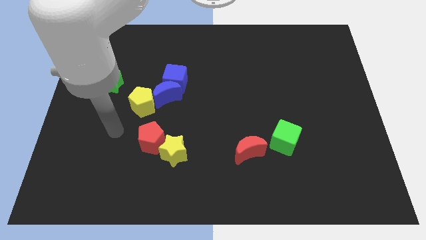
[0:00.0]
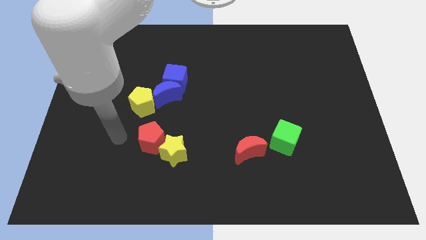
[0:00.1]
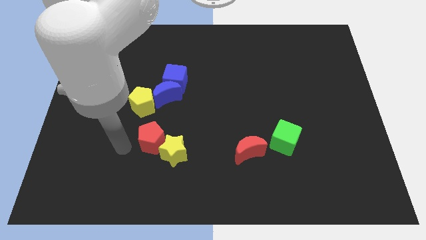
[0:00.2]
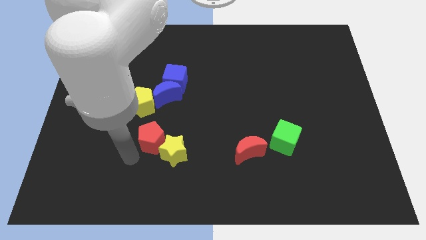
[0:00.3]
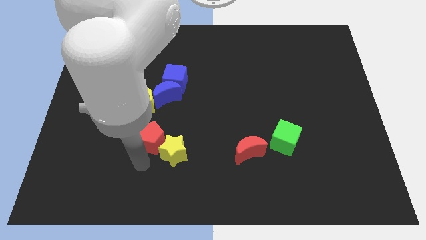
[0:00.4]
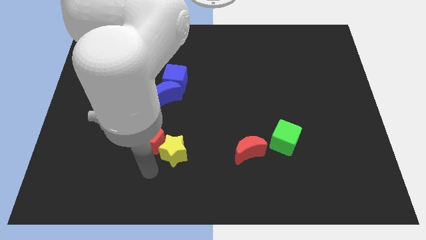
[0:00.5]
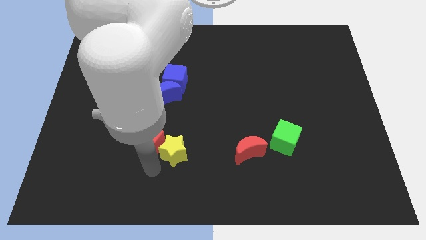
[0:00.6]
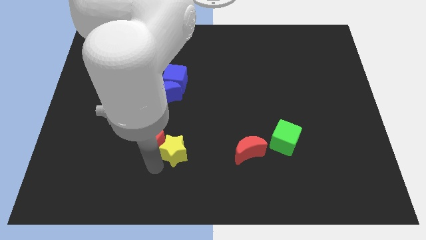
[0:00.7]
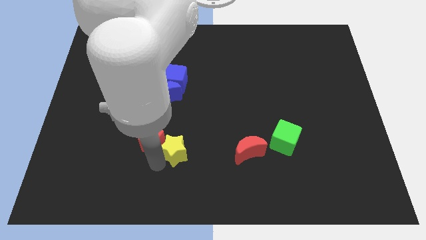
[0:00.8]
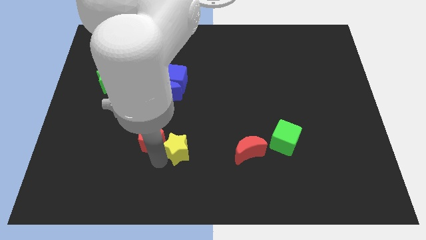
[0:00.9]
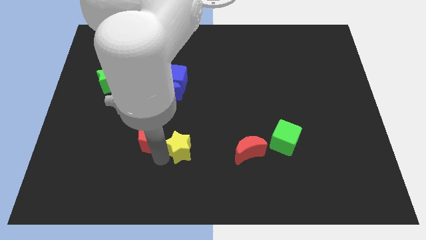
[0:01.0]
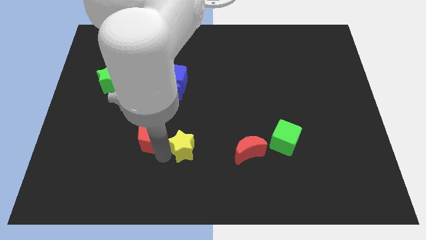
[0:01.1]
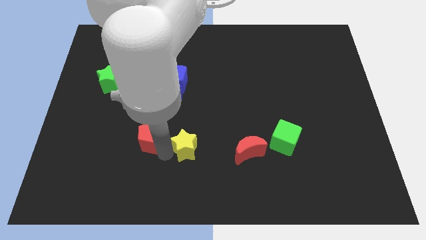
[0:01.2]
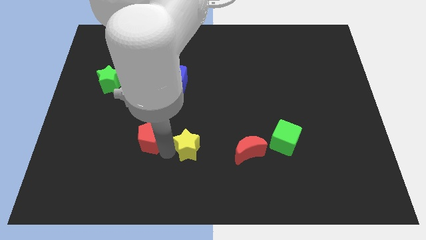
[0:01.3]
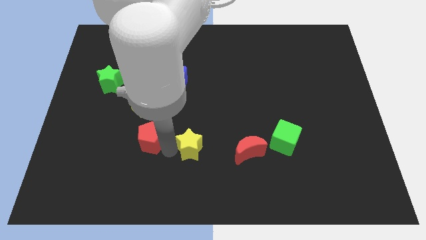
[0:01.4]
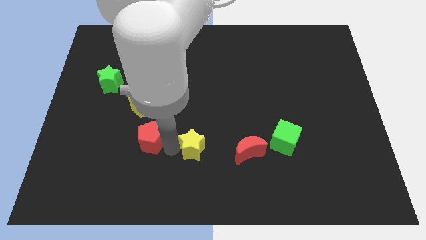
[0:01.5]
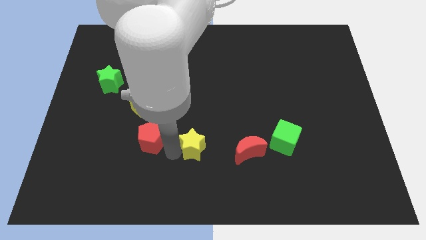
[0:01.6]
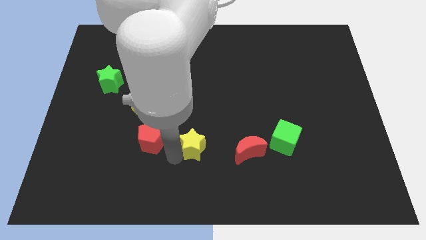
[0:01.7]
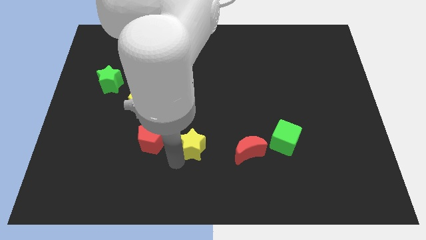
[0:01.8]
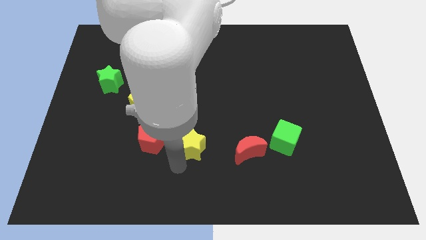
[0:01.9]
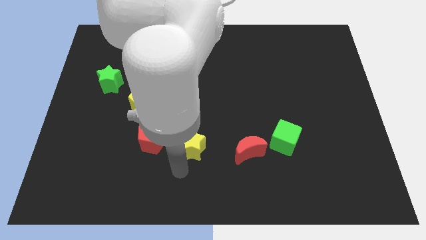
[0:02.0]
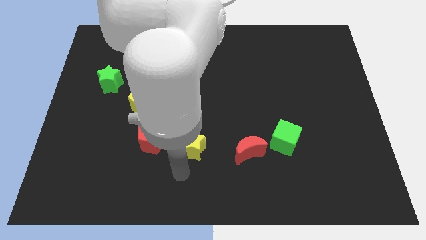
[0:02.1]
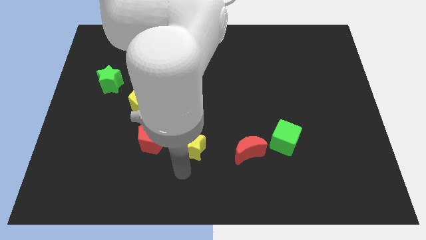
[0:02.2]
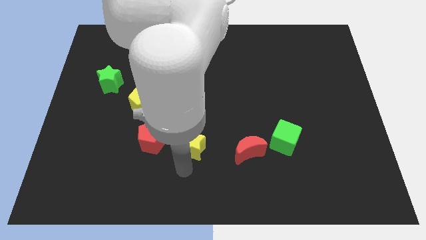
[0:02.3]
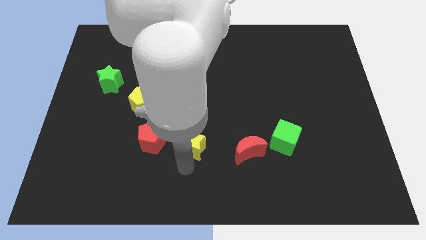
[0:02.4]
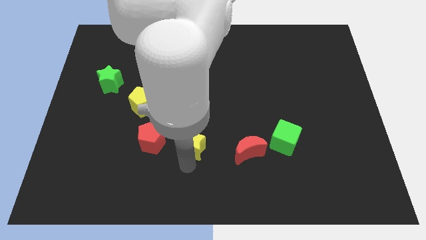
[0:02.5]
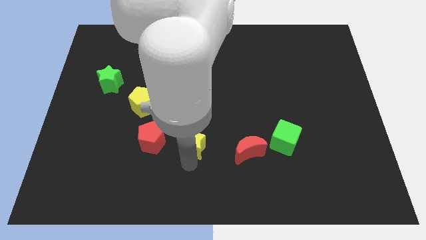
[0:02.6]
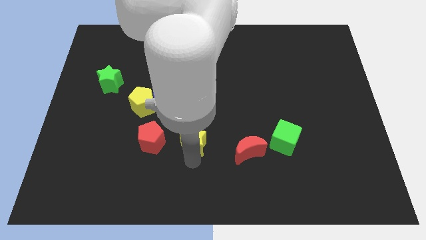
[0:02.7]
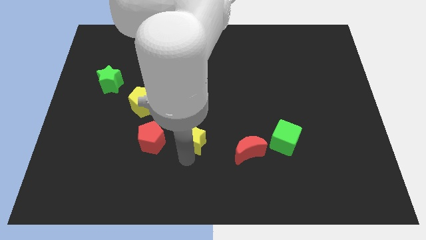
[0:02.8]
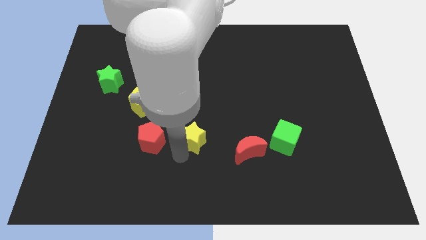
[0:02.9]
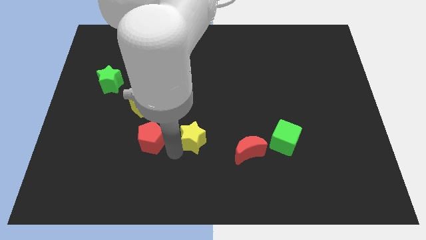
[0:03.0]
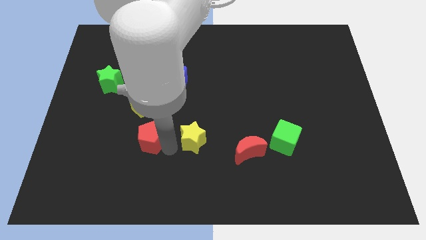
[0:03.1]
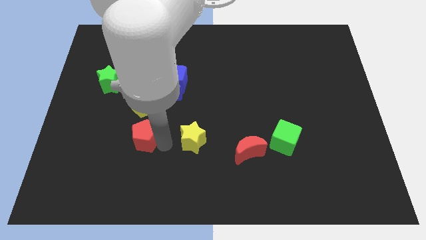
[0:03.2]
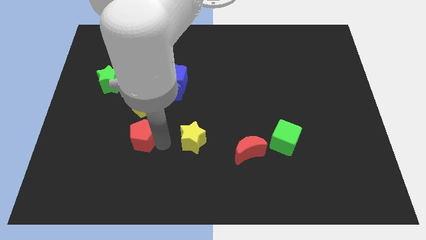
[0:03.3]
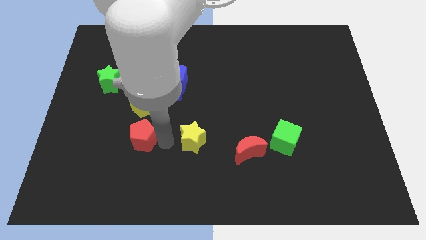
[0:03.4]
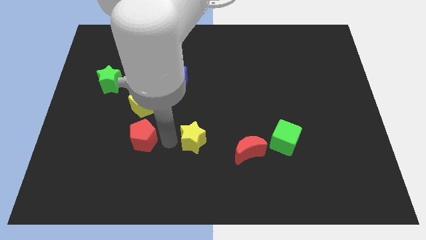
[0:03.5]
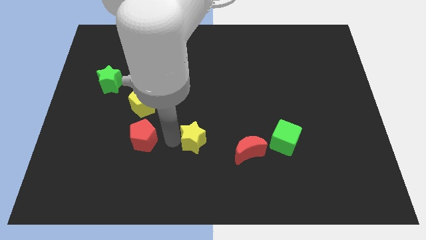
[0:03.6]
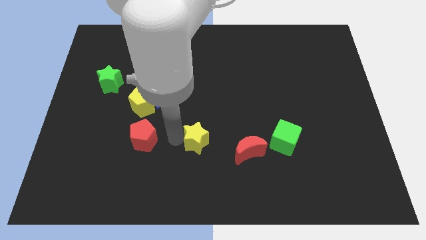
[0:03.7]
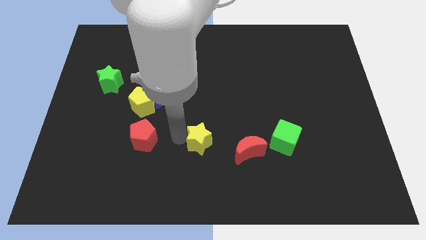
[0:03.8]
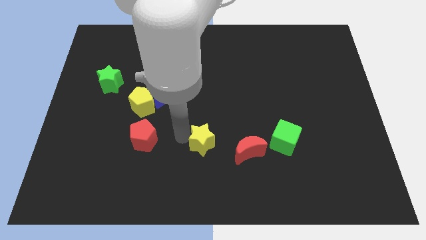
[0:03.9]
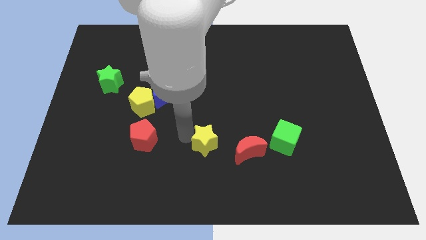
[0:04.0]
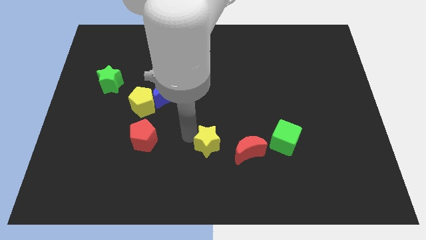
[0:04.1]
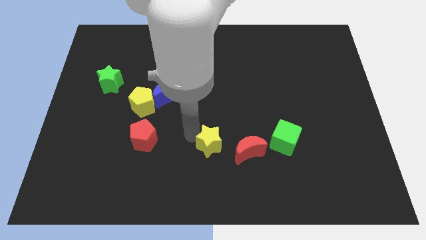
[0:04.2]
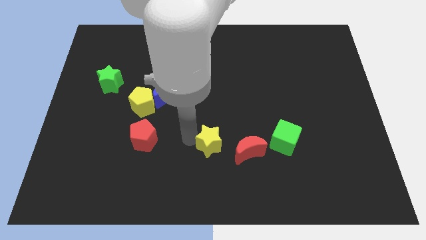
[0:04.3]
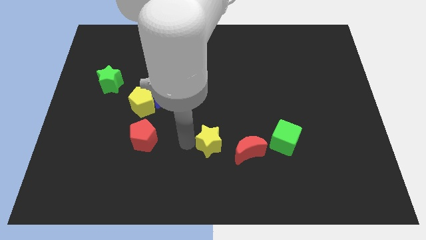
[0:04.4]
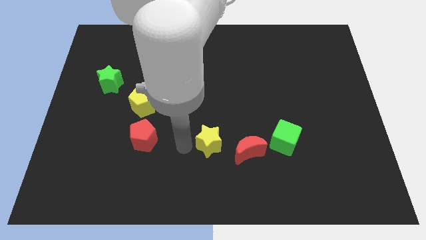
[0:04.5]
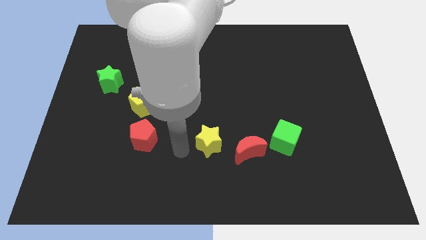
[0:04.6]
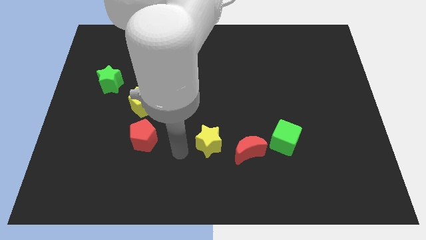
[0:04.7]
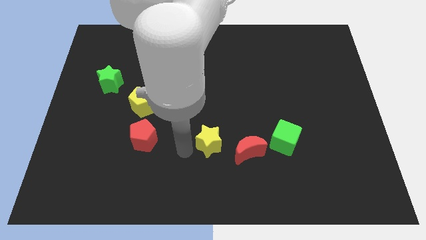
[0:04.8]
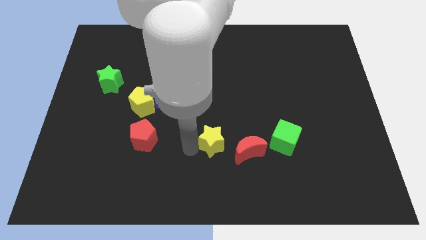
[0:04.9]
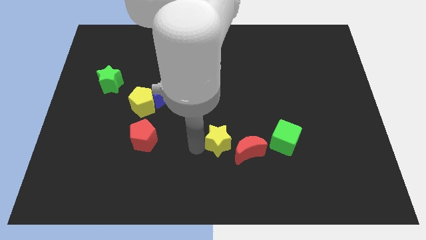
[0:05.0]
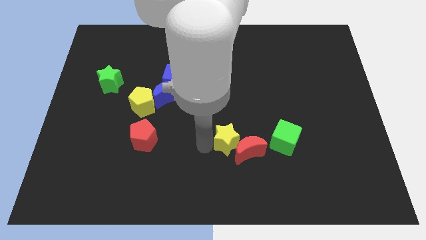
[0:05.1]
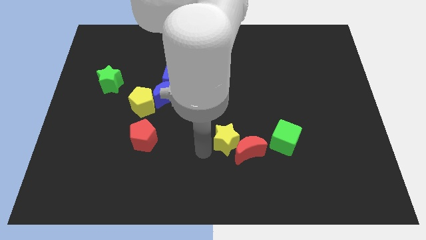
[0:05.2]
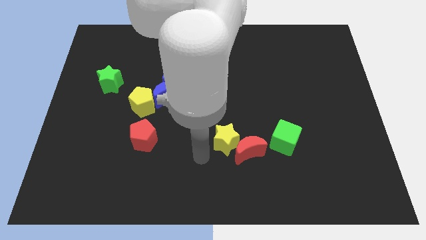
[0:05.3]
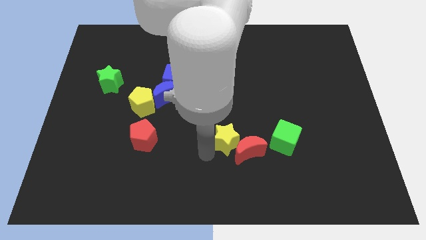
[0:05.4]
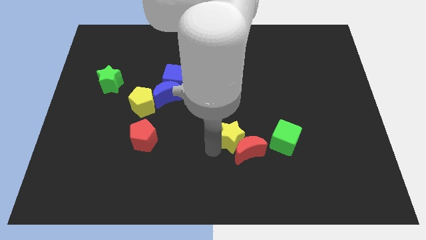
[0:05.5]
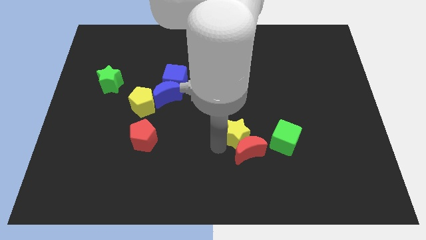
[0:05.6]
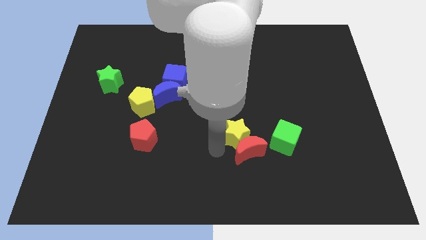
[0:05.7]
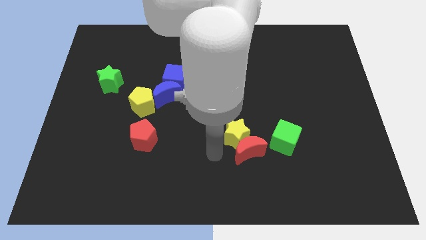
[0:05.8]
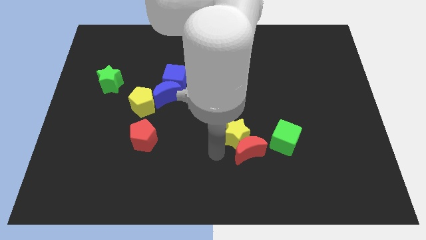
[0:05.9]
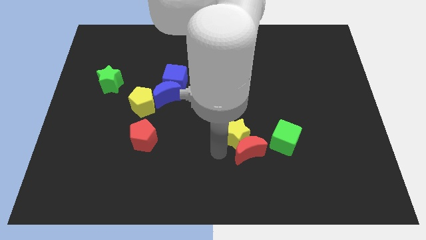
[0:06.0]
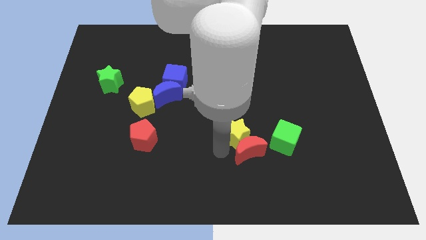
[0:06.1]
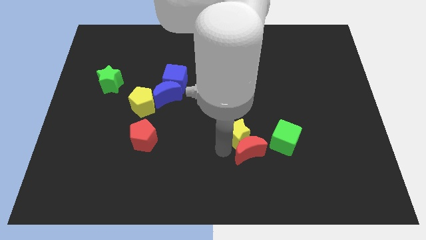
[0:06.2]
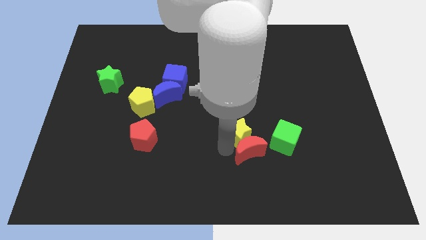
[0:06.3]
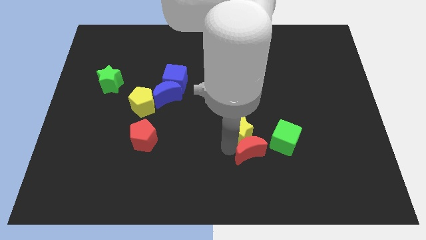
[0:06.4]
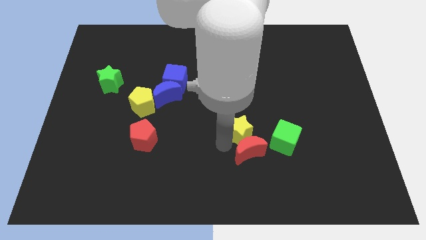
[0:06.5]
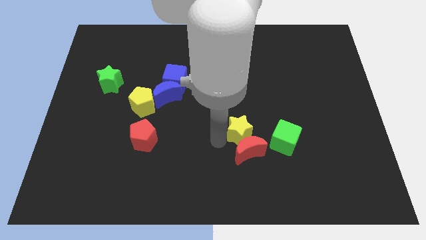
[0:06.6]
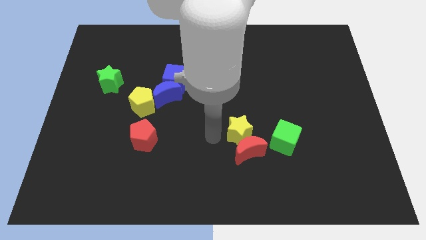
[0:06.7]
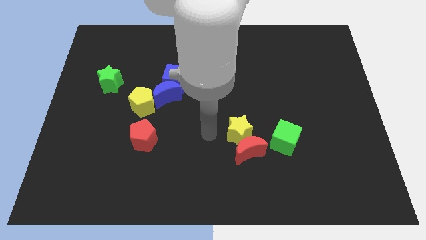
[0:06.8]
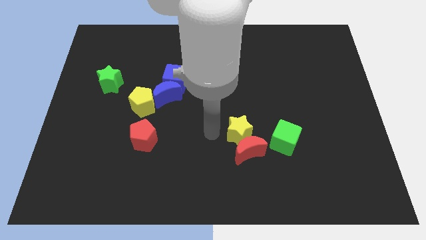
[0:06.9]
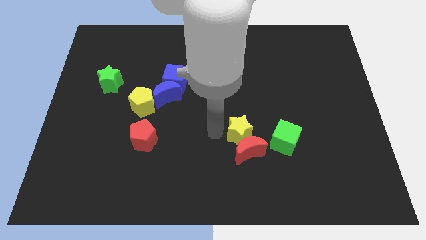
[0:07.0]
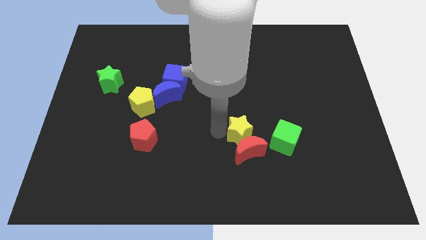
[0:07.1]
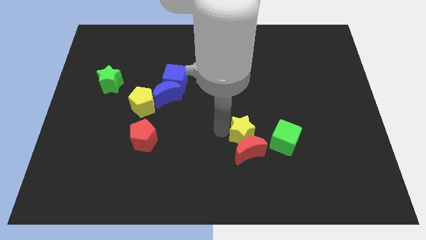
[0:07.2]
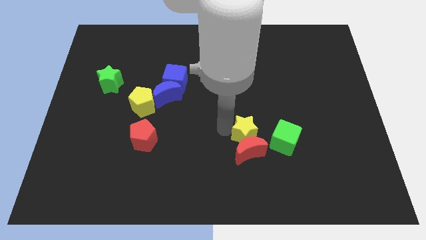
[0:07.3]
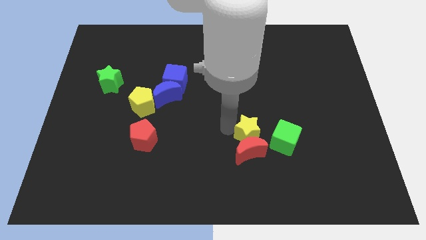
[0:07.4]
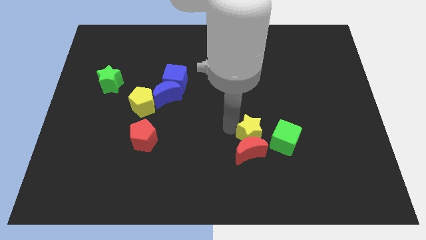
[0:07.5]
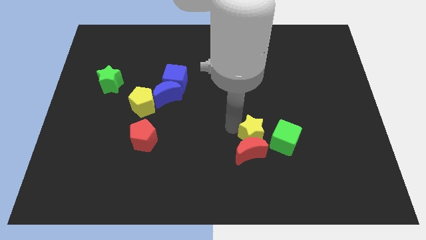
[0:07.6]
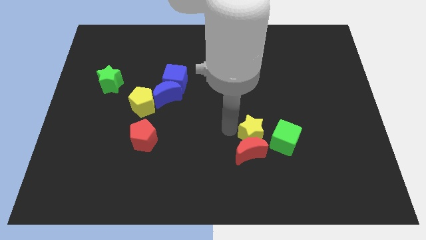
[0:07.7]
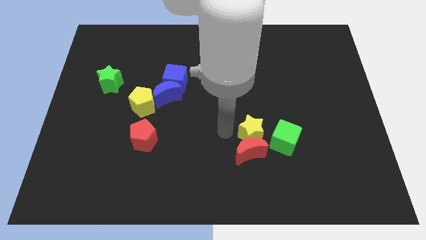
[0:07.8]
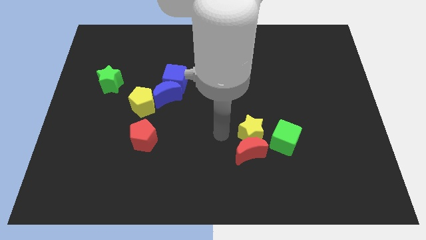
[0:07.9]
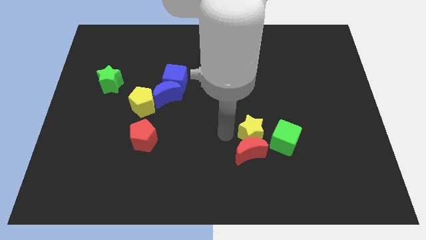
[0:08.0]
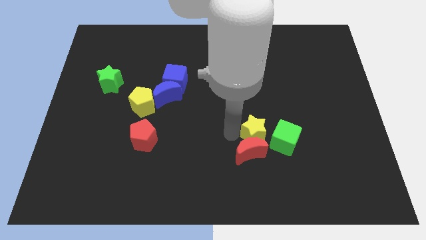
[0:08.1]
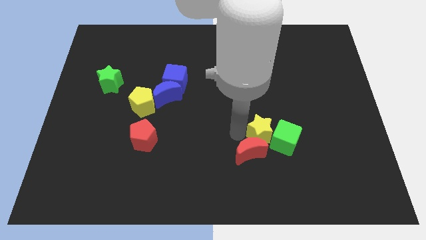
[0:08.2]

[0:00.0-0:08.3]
move the yellow star close to the green cube
